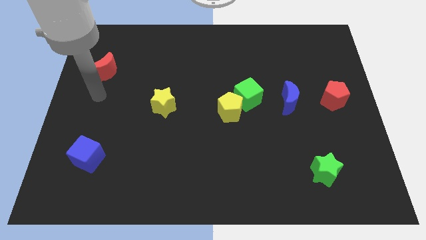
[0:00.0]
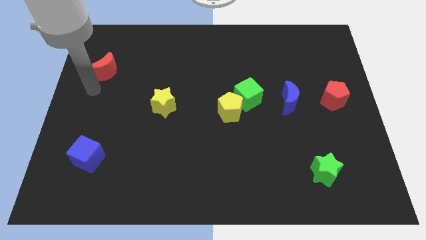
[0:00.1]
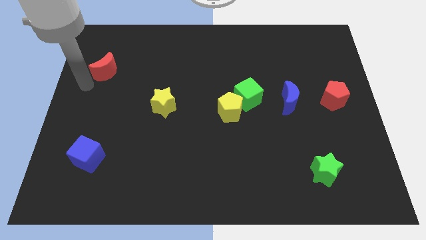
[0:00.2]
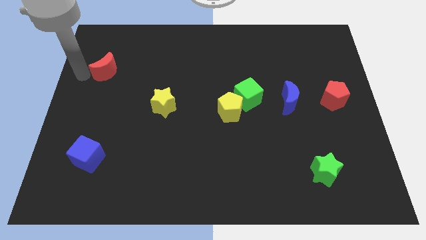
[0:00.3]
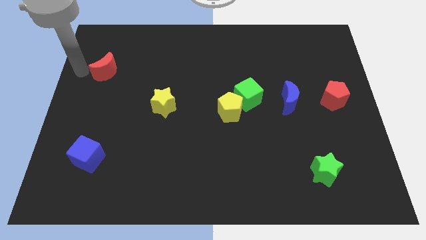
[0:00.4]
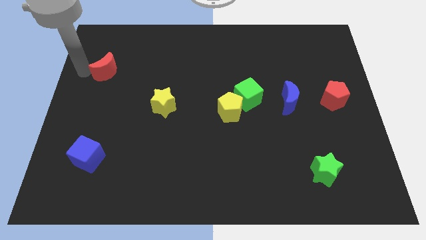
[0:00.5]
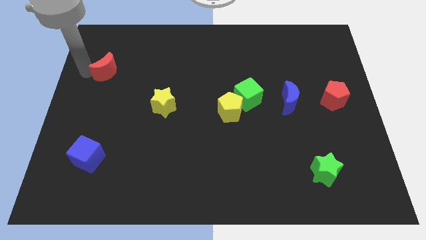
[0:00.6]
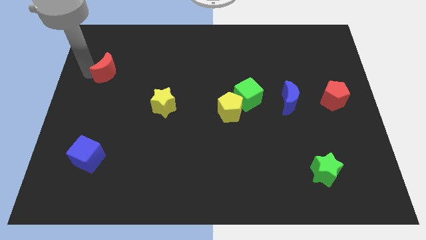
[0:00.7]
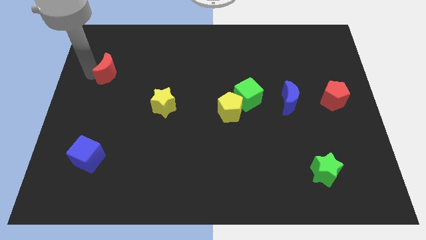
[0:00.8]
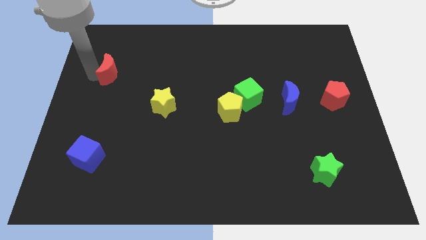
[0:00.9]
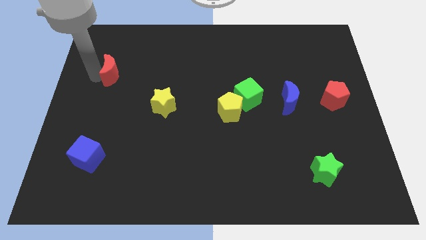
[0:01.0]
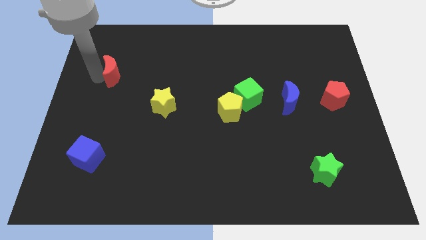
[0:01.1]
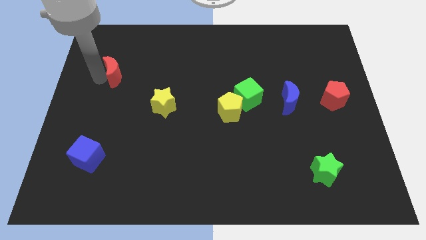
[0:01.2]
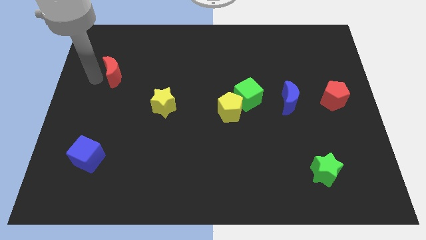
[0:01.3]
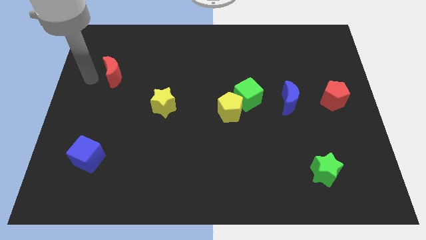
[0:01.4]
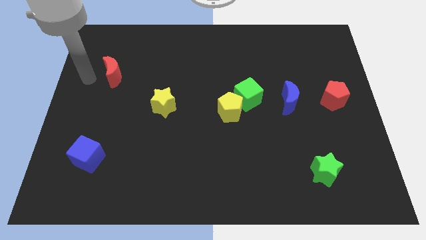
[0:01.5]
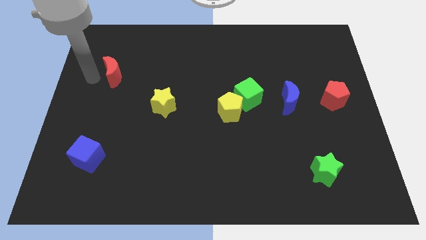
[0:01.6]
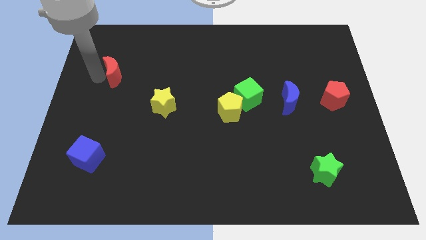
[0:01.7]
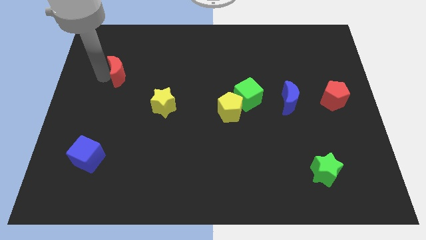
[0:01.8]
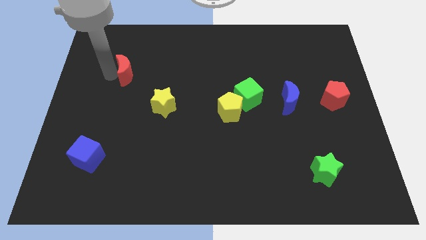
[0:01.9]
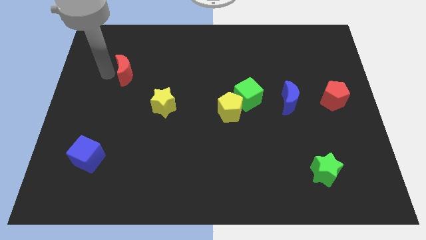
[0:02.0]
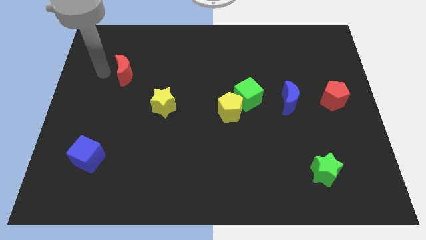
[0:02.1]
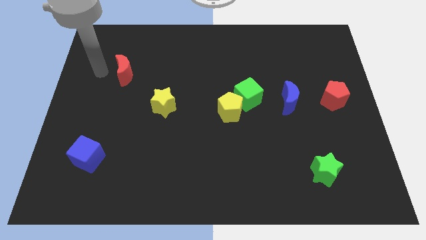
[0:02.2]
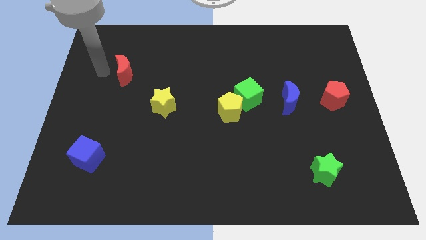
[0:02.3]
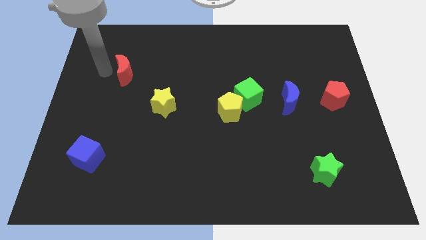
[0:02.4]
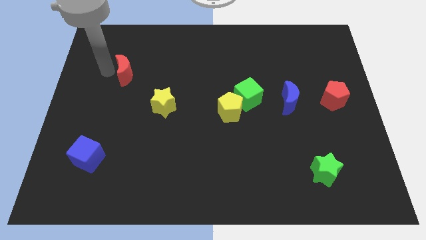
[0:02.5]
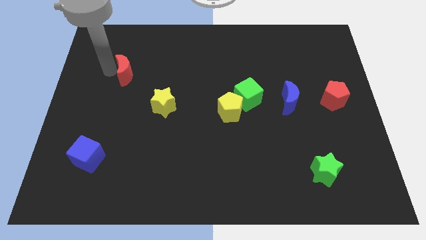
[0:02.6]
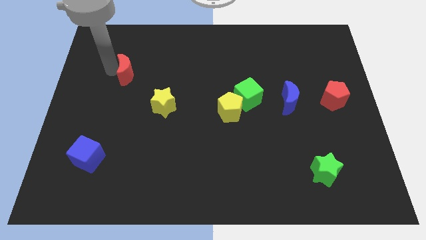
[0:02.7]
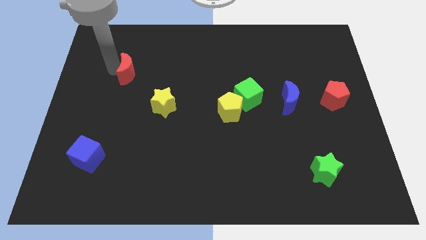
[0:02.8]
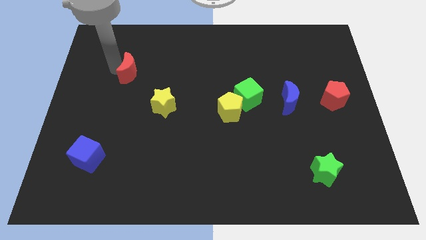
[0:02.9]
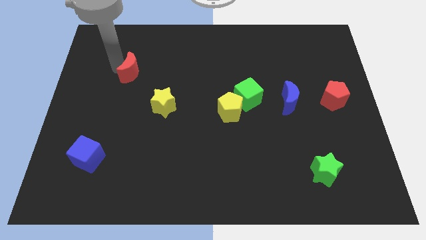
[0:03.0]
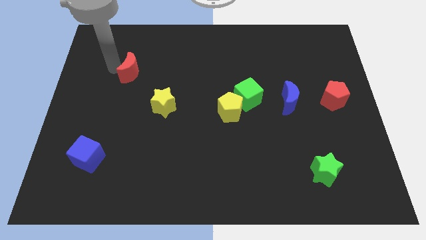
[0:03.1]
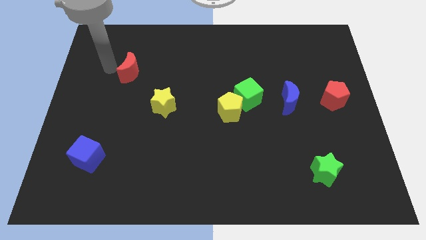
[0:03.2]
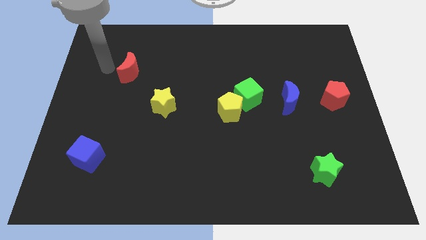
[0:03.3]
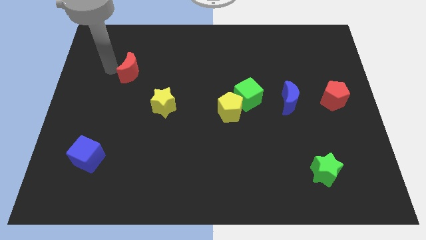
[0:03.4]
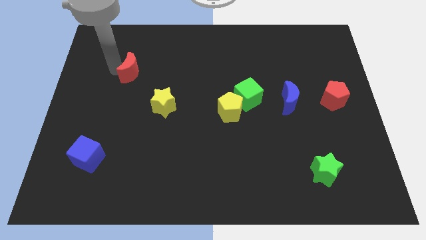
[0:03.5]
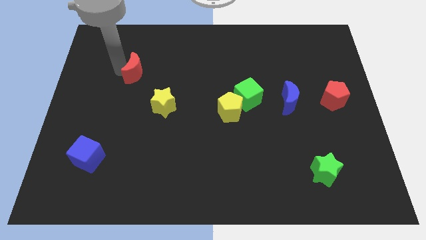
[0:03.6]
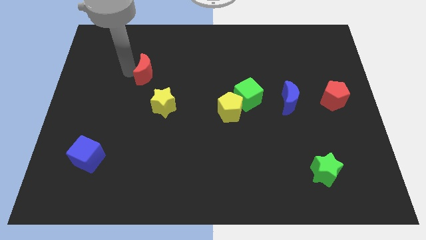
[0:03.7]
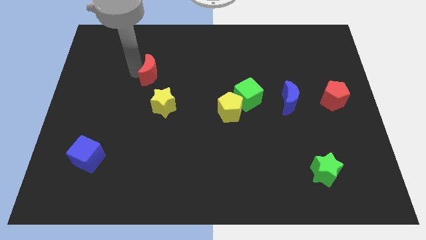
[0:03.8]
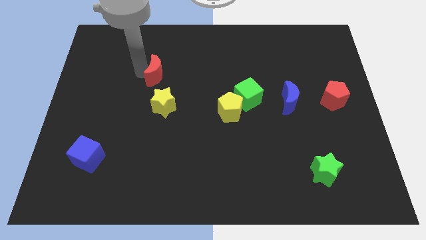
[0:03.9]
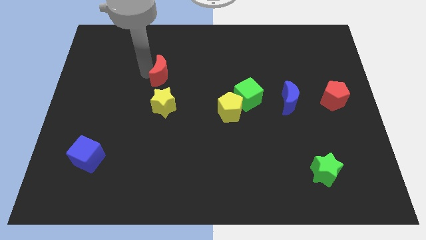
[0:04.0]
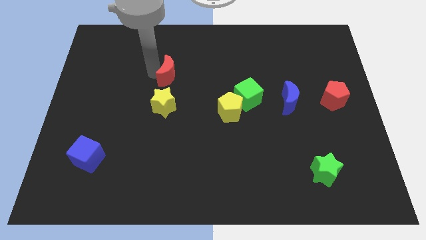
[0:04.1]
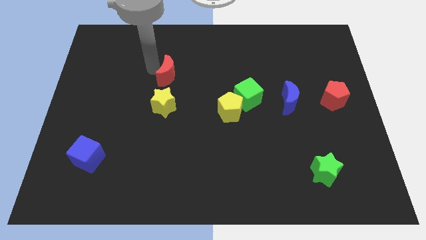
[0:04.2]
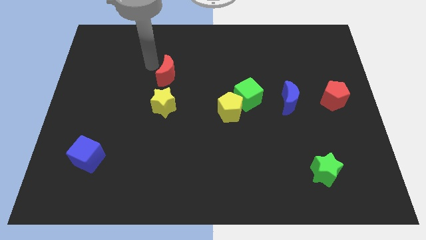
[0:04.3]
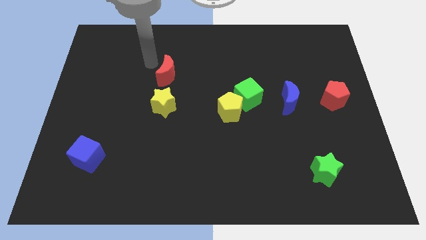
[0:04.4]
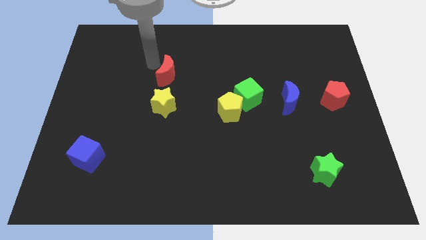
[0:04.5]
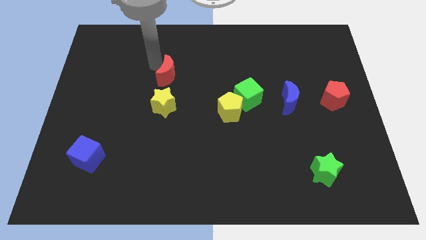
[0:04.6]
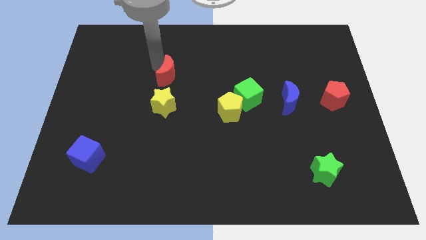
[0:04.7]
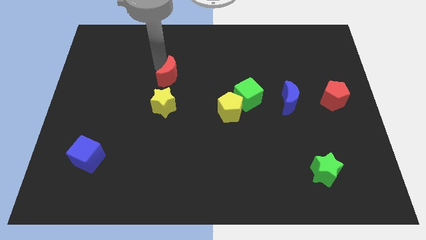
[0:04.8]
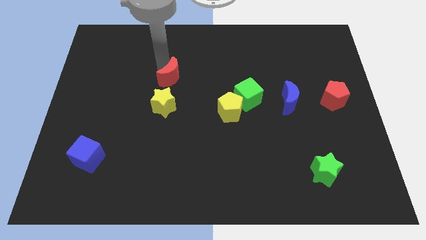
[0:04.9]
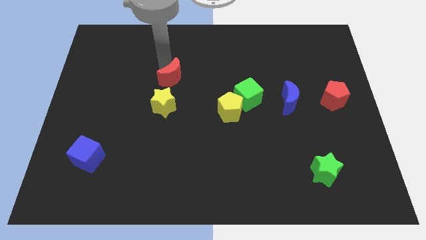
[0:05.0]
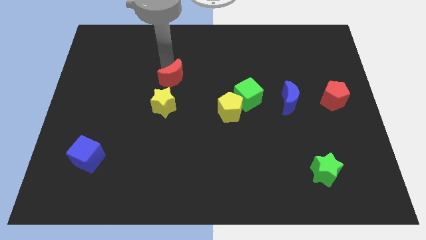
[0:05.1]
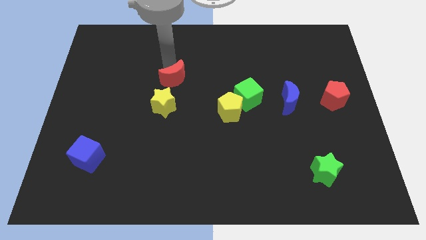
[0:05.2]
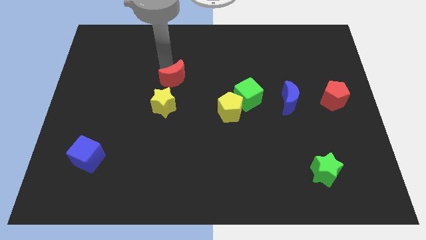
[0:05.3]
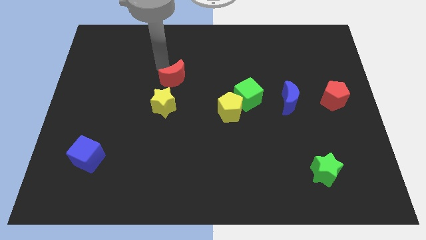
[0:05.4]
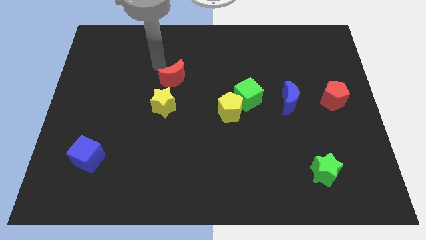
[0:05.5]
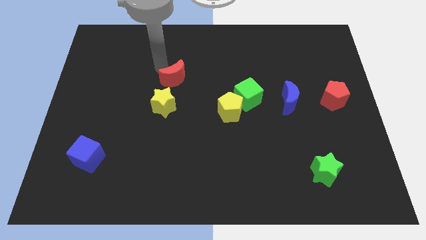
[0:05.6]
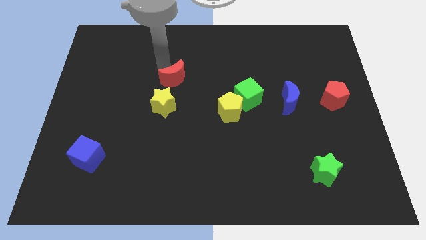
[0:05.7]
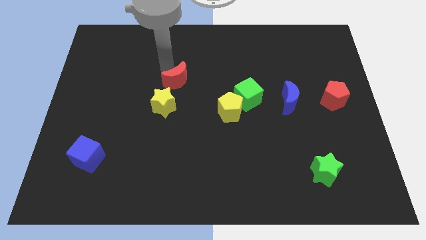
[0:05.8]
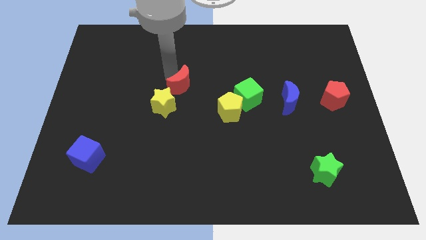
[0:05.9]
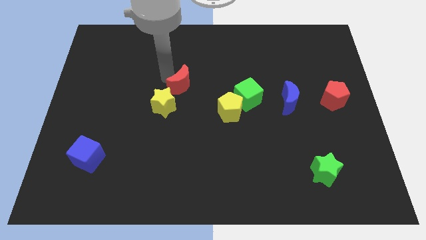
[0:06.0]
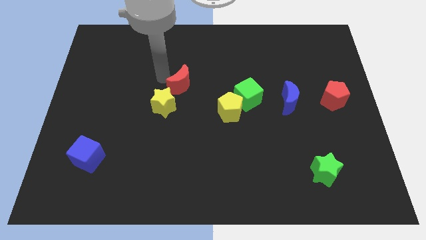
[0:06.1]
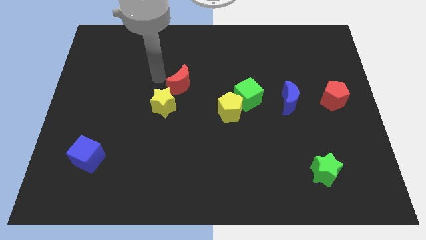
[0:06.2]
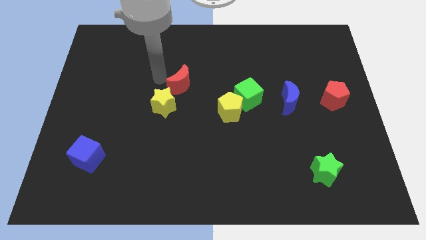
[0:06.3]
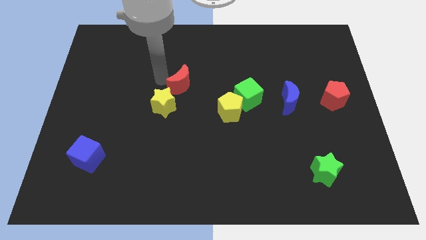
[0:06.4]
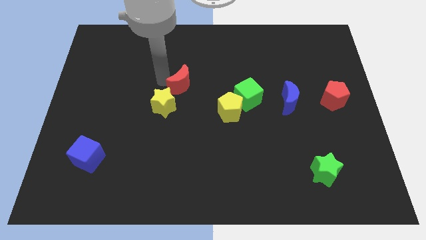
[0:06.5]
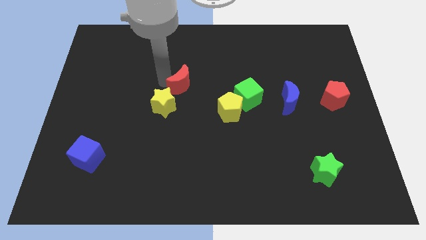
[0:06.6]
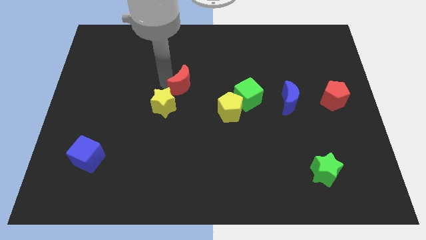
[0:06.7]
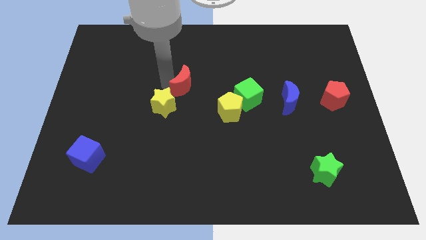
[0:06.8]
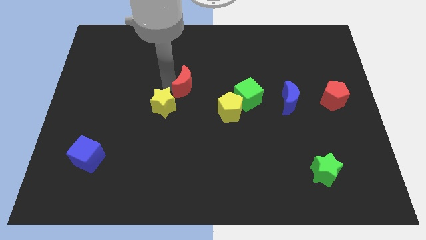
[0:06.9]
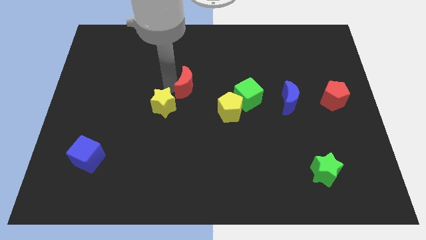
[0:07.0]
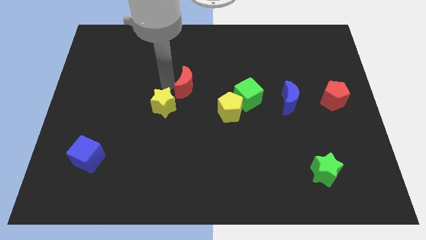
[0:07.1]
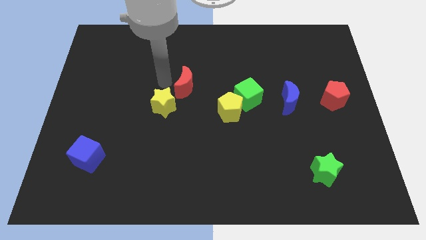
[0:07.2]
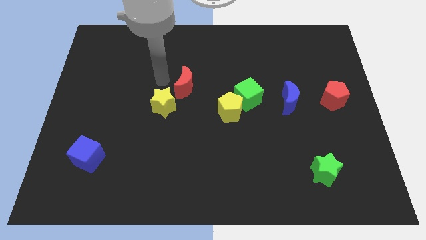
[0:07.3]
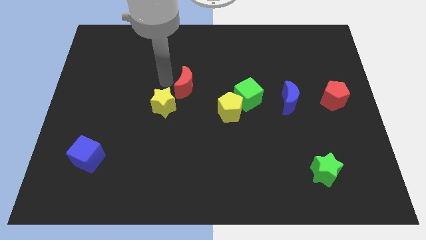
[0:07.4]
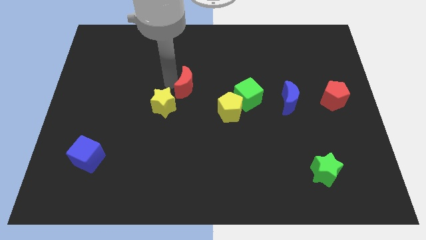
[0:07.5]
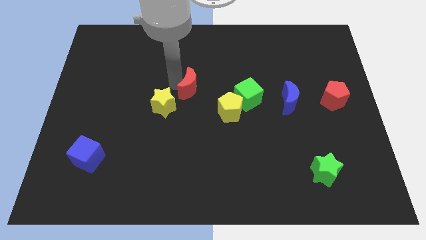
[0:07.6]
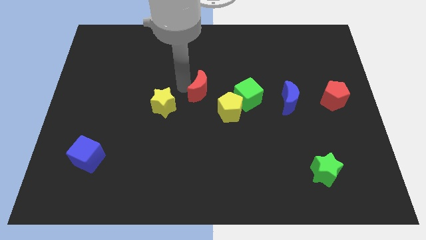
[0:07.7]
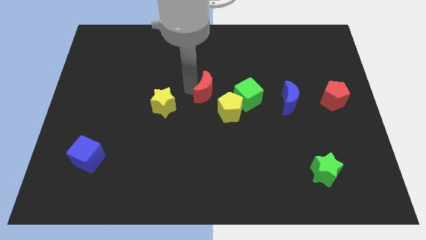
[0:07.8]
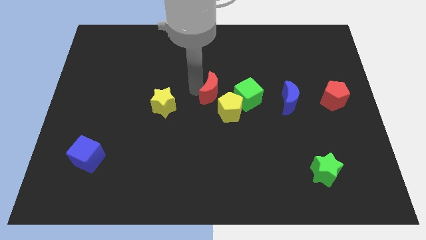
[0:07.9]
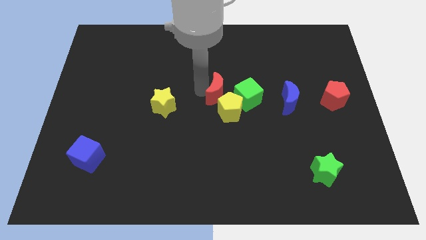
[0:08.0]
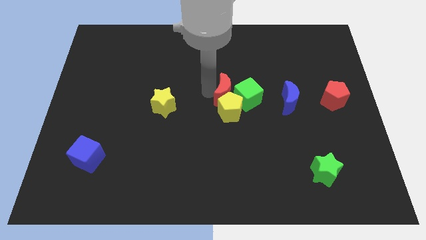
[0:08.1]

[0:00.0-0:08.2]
push the red moon close to the green cube
